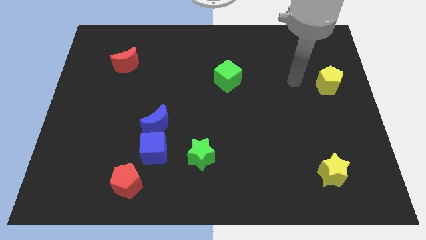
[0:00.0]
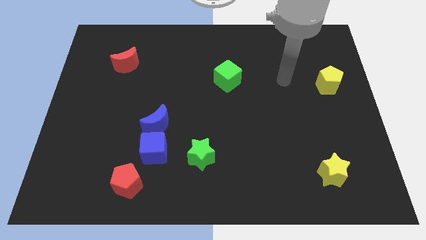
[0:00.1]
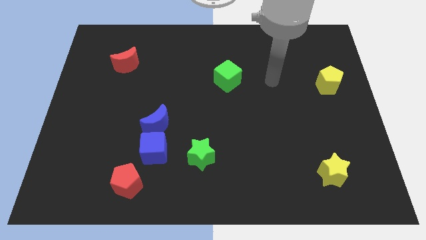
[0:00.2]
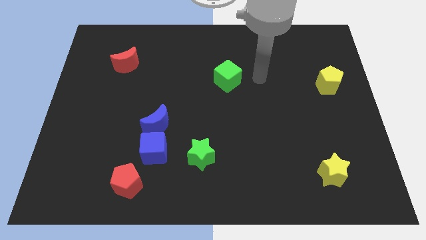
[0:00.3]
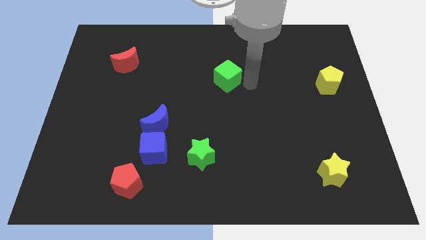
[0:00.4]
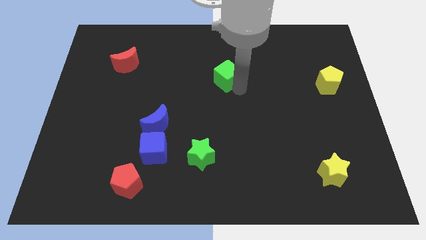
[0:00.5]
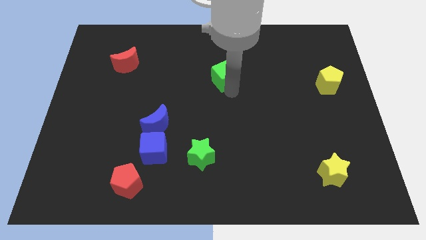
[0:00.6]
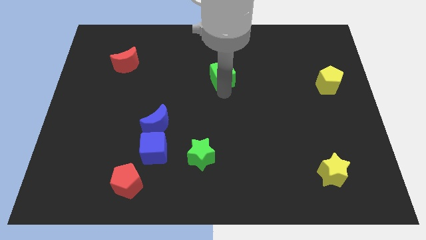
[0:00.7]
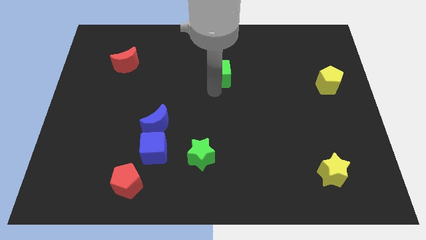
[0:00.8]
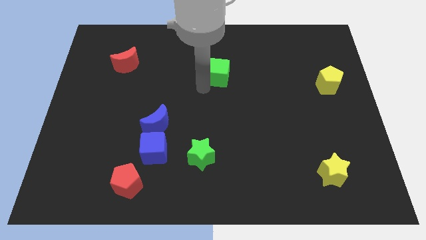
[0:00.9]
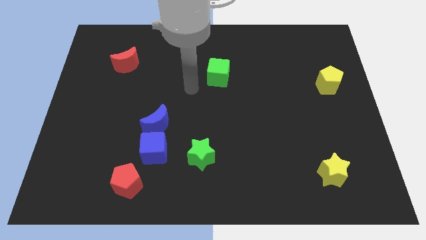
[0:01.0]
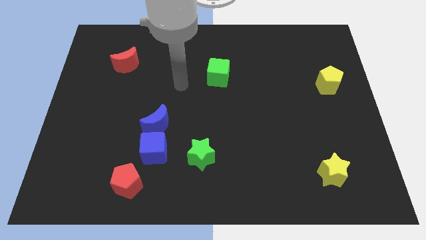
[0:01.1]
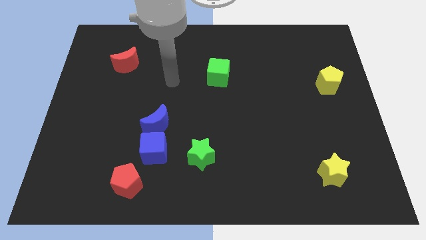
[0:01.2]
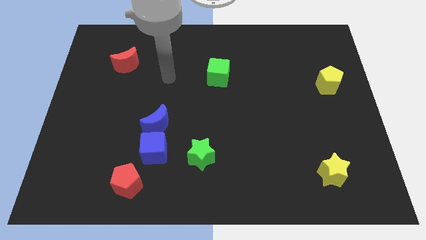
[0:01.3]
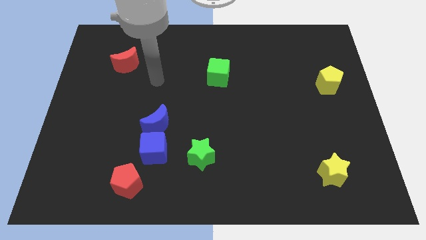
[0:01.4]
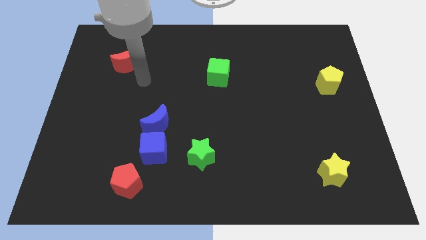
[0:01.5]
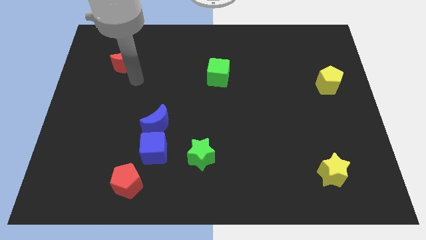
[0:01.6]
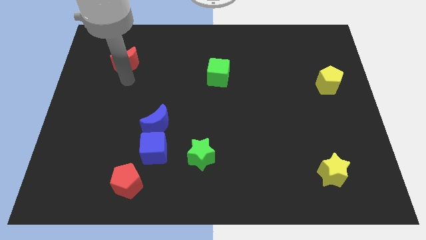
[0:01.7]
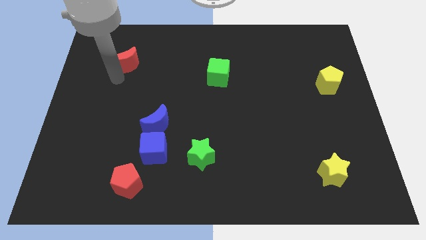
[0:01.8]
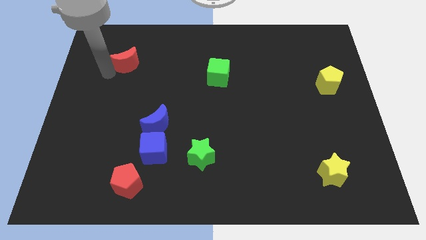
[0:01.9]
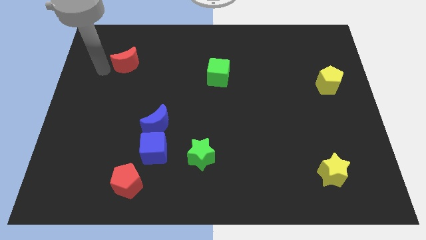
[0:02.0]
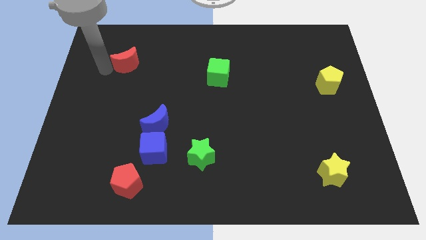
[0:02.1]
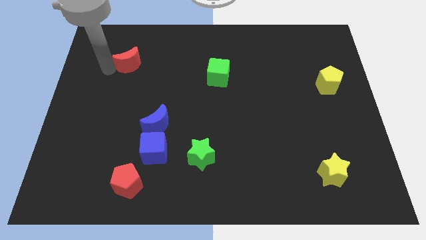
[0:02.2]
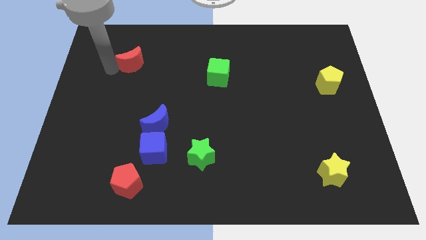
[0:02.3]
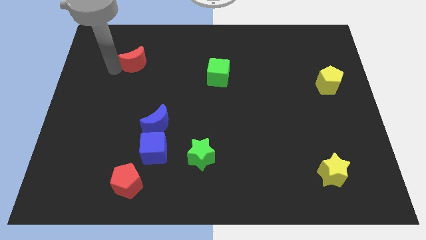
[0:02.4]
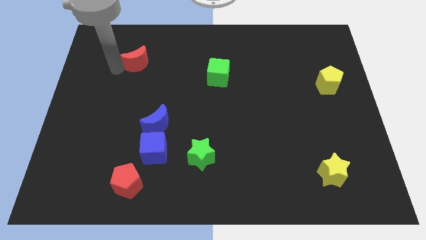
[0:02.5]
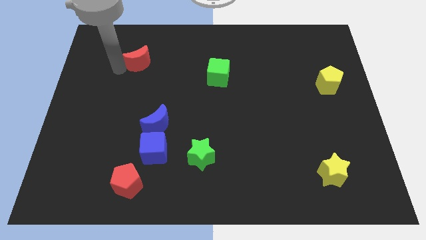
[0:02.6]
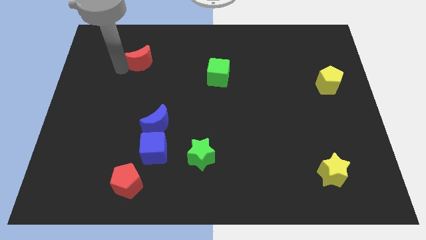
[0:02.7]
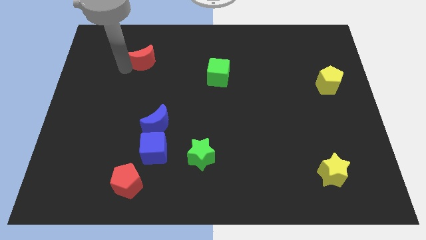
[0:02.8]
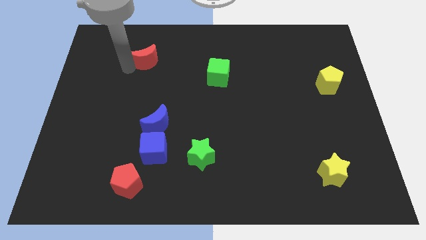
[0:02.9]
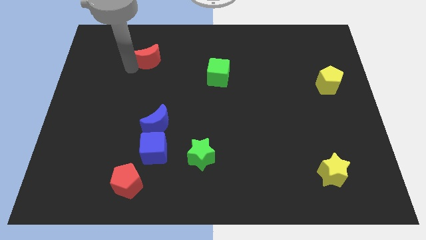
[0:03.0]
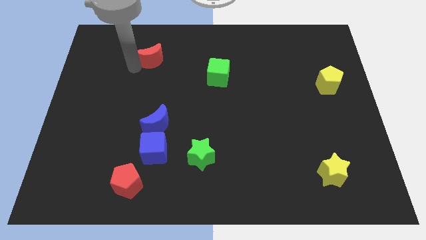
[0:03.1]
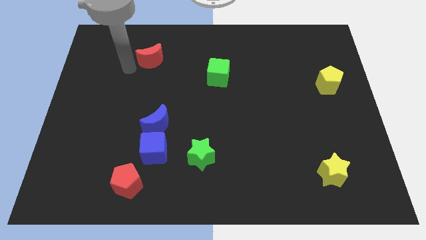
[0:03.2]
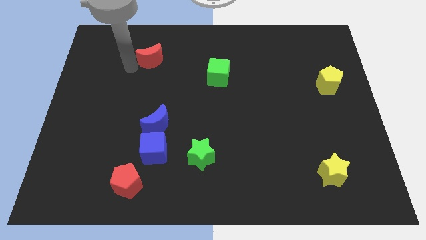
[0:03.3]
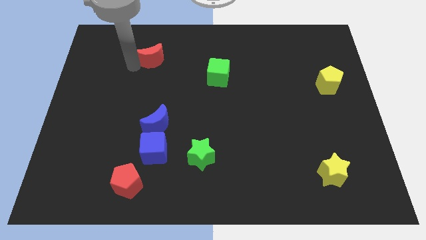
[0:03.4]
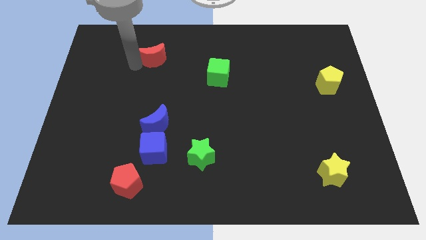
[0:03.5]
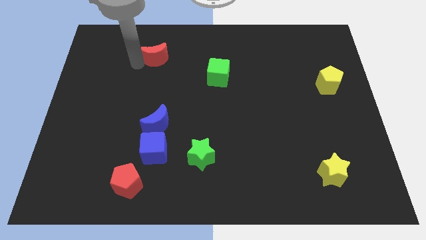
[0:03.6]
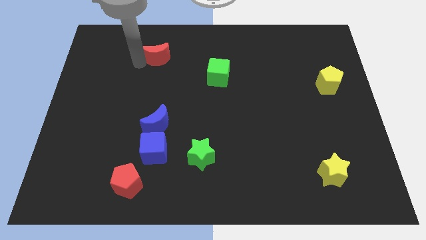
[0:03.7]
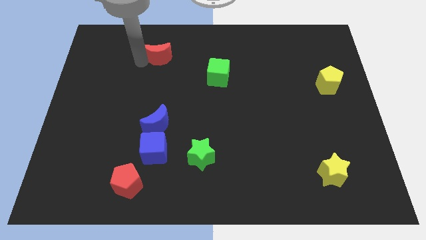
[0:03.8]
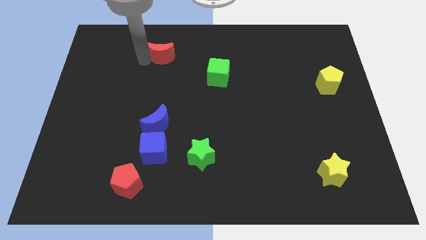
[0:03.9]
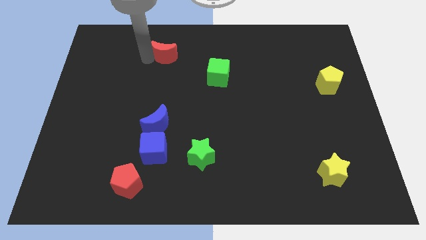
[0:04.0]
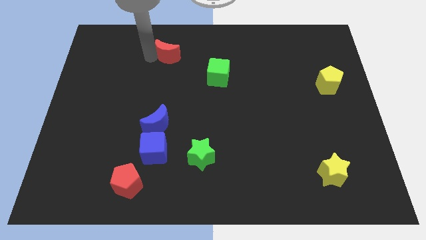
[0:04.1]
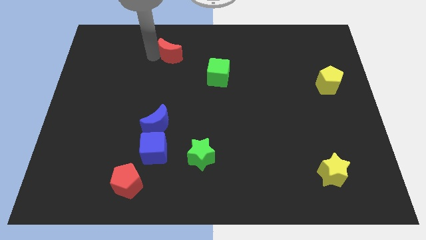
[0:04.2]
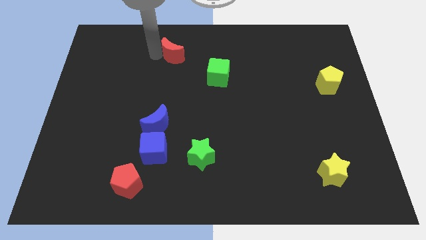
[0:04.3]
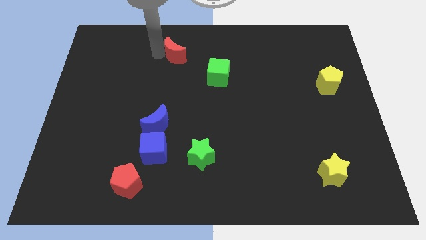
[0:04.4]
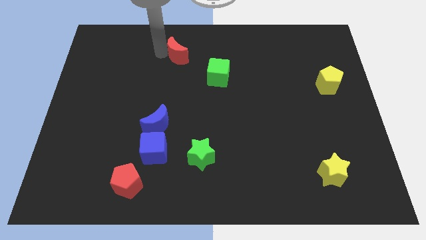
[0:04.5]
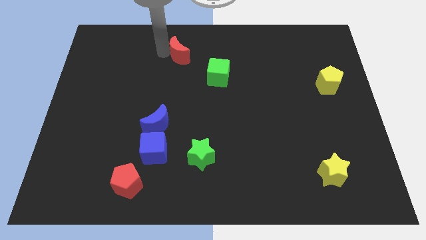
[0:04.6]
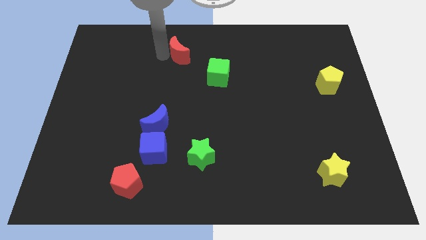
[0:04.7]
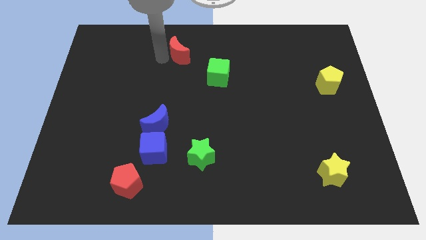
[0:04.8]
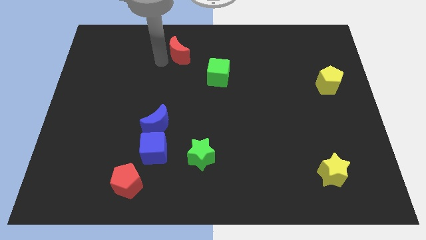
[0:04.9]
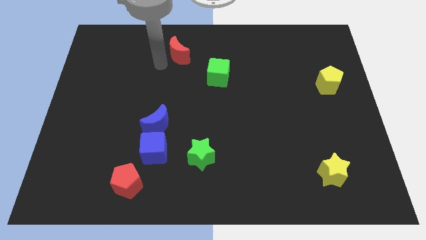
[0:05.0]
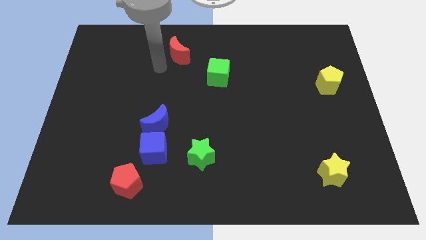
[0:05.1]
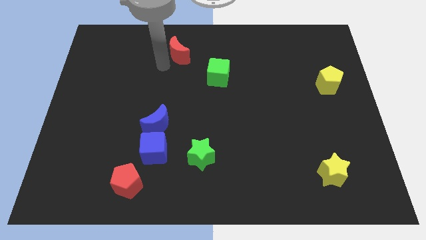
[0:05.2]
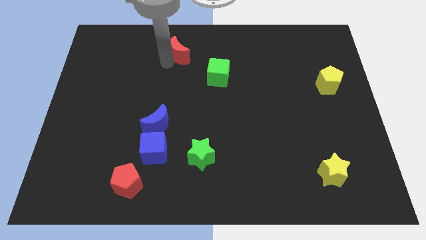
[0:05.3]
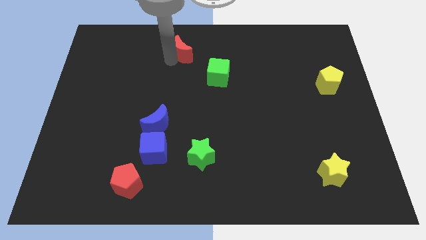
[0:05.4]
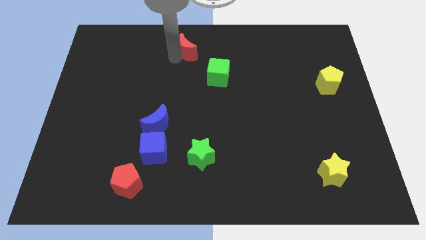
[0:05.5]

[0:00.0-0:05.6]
push the red moon to the top
